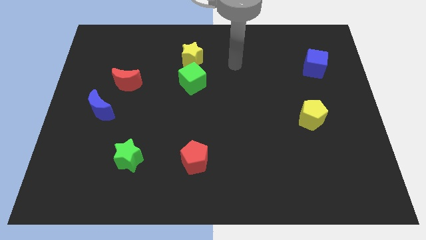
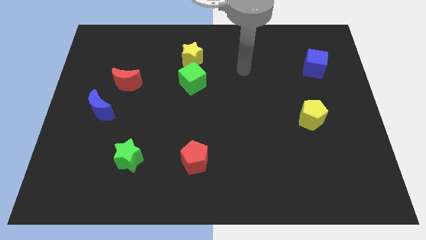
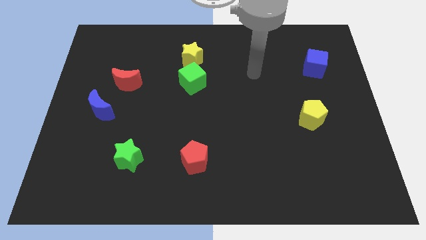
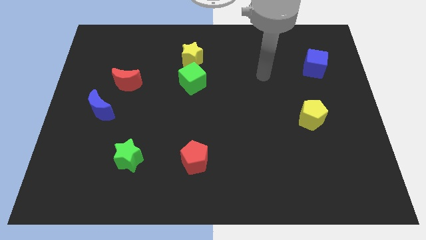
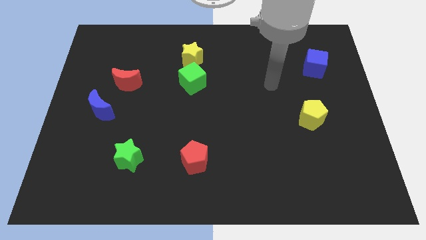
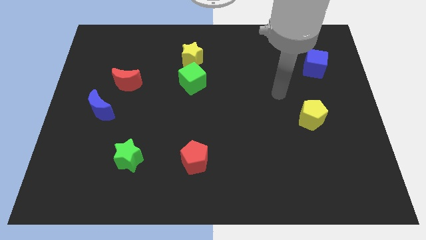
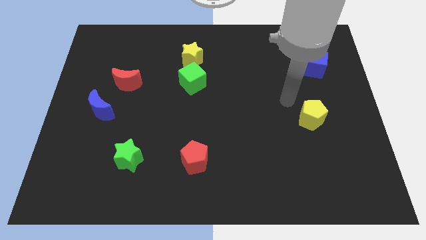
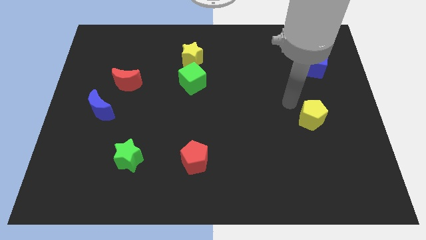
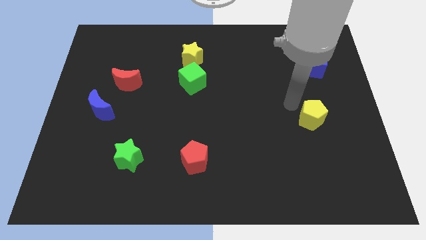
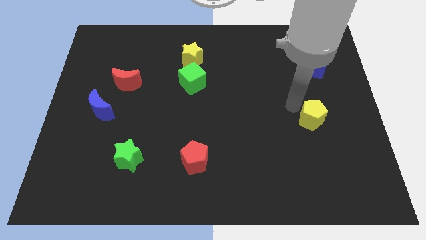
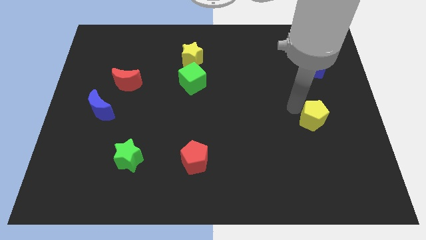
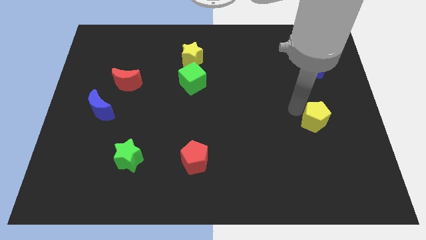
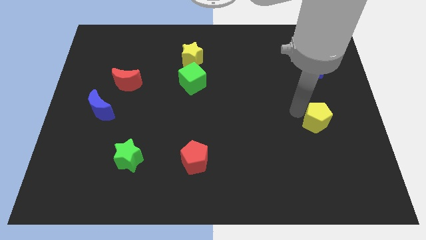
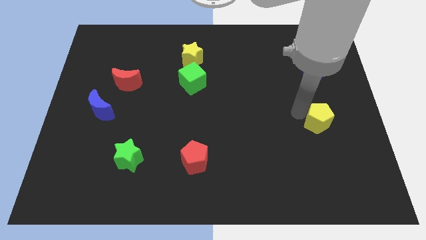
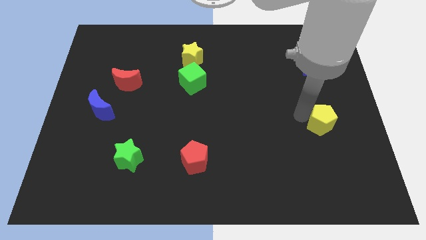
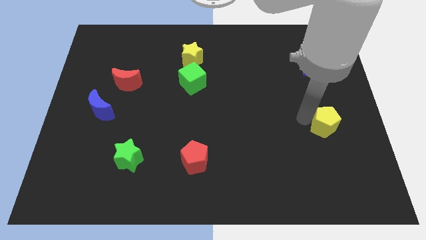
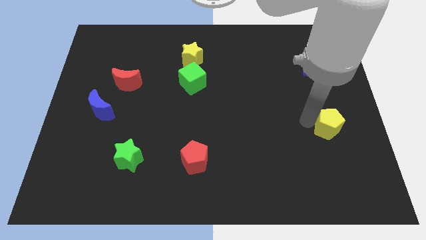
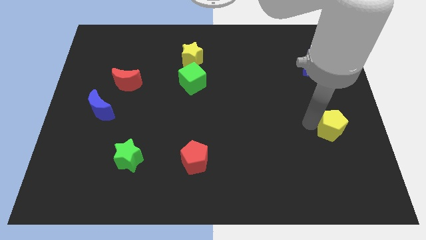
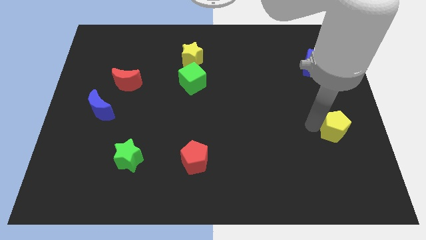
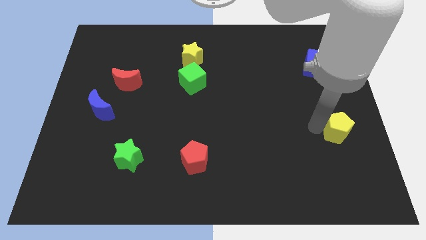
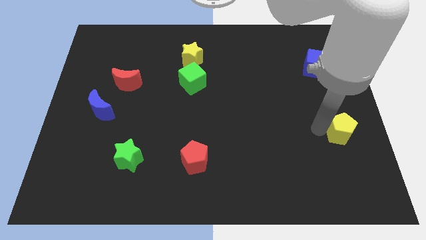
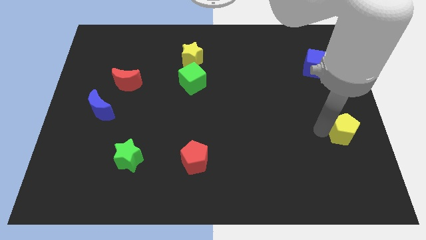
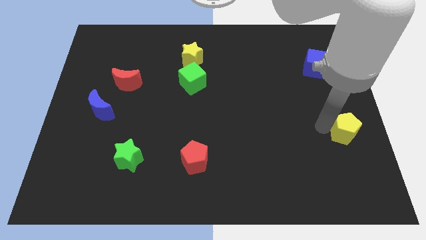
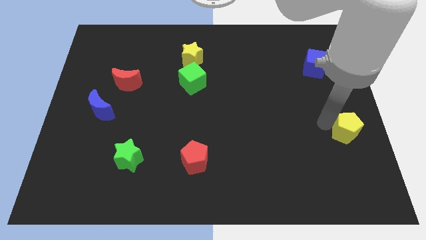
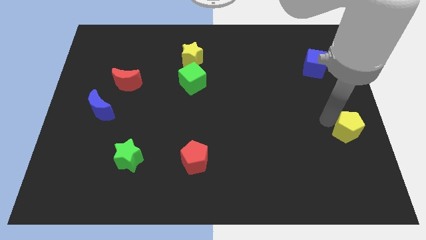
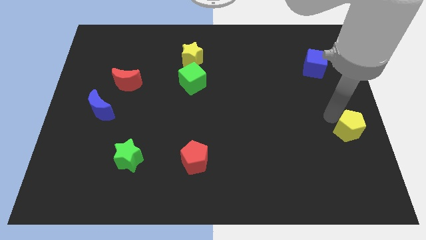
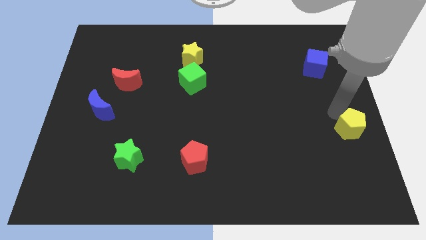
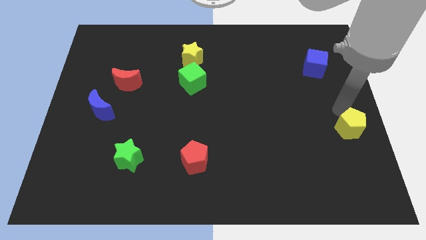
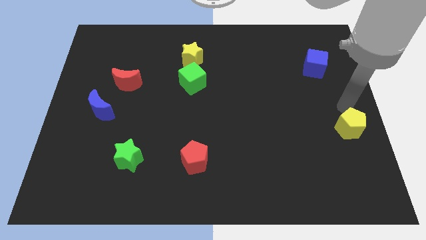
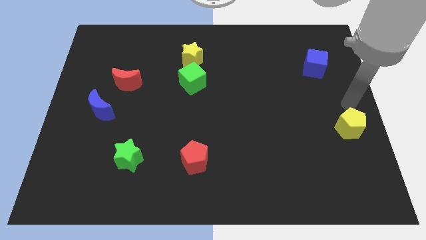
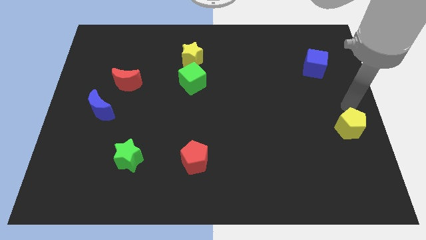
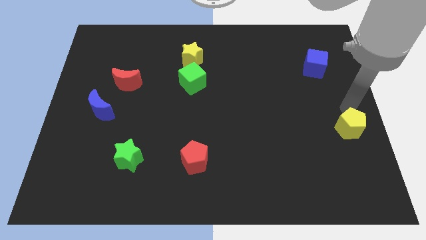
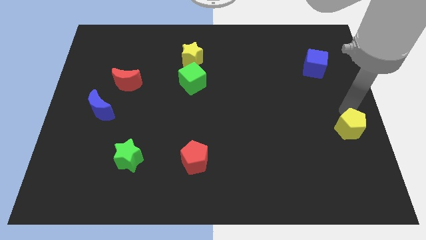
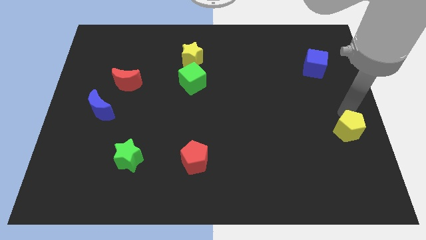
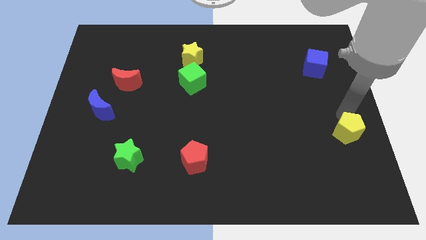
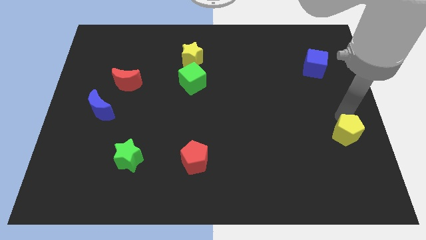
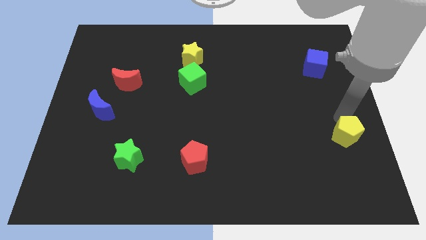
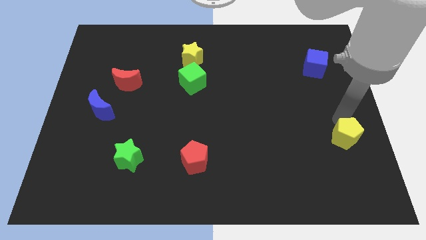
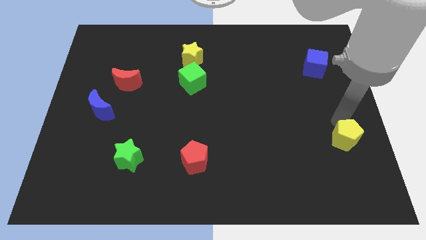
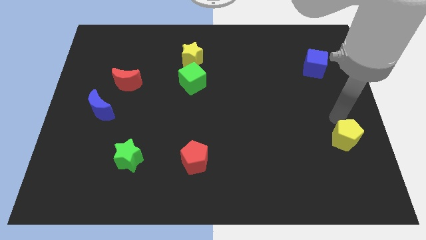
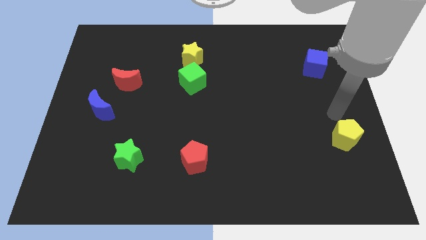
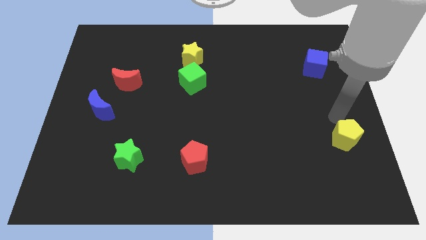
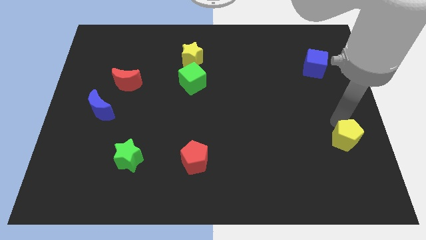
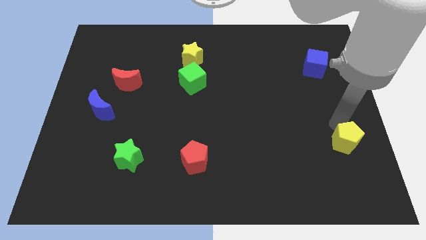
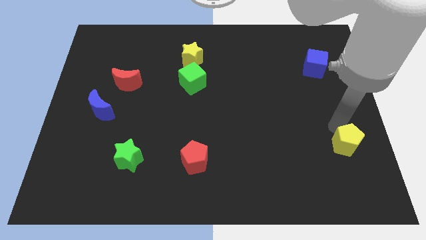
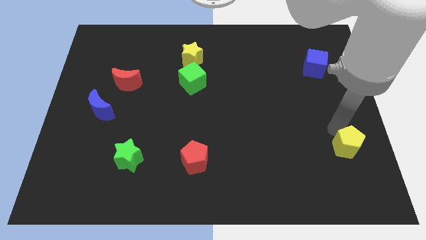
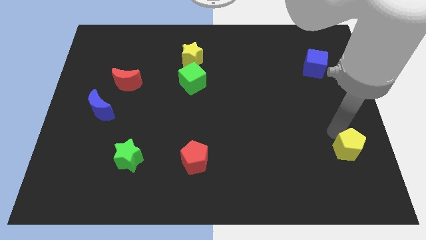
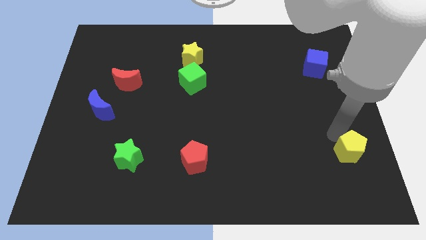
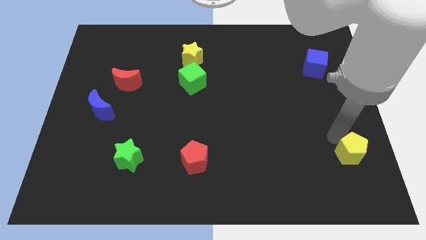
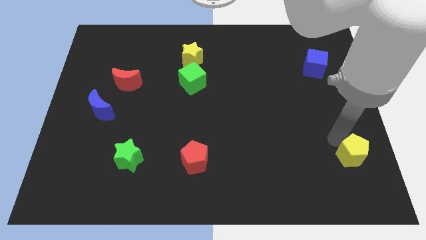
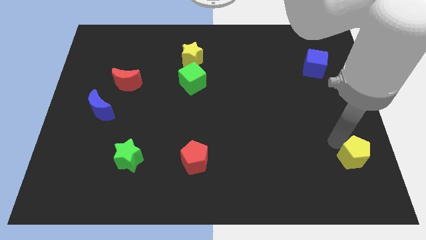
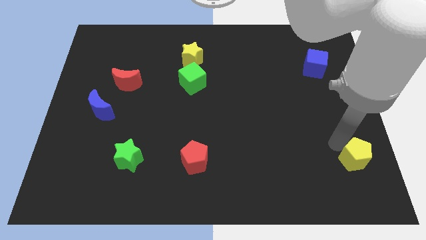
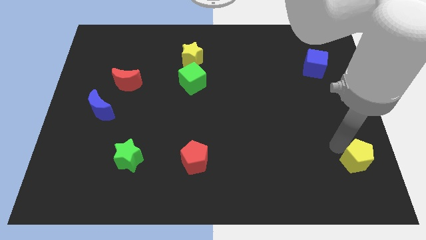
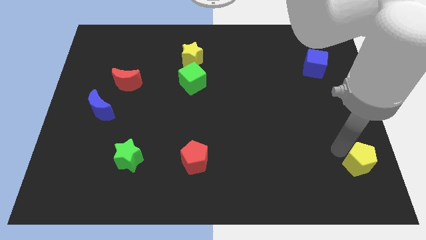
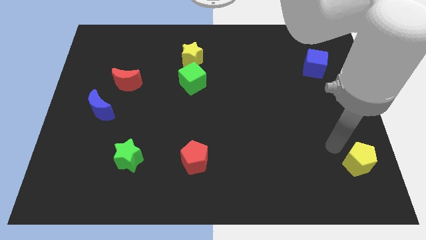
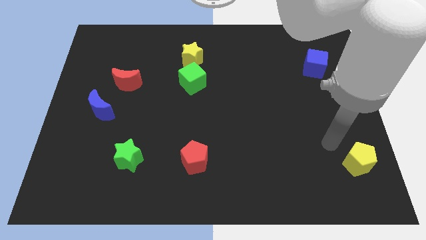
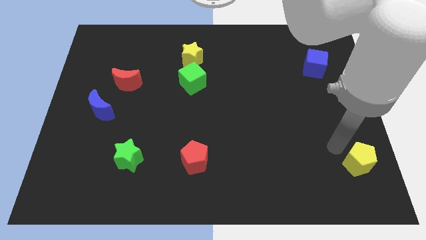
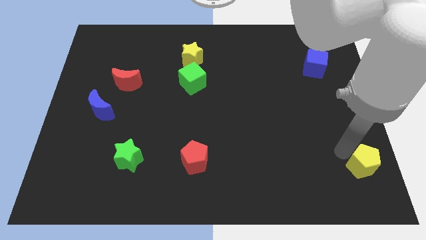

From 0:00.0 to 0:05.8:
put the yellow pentagon to the lower right corner
